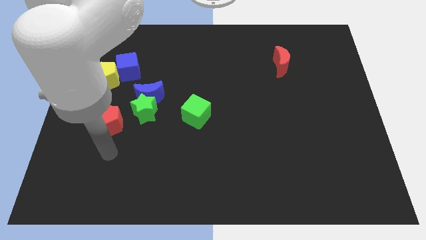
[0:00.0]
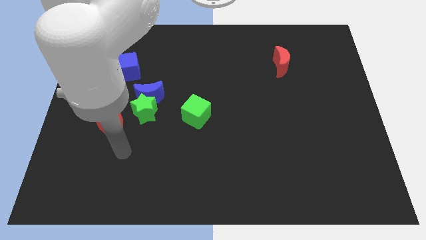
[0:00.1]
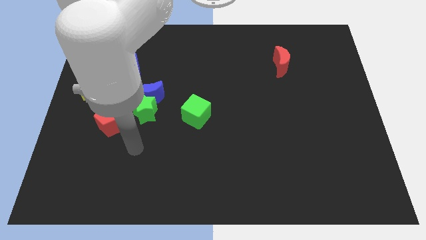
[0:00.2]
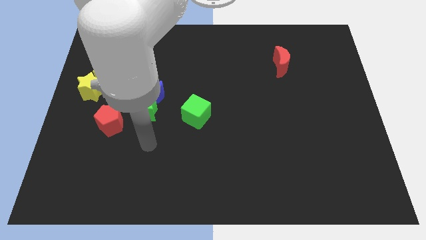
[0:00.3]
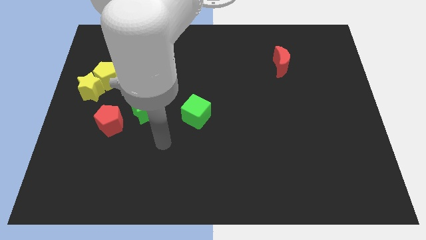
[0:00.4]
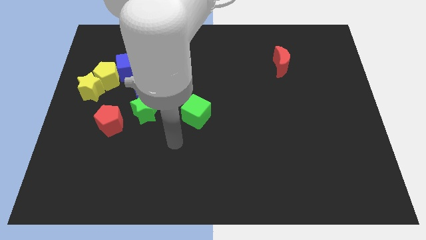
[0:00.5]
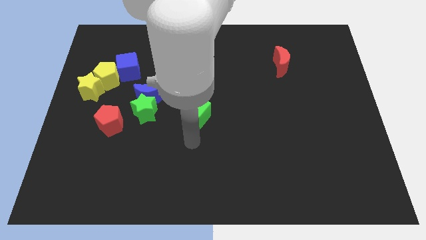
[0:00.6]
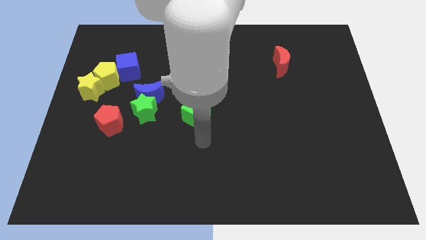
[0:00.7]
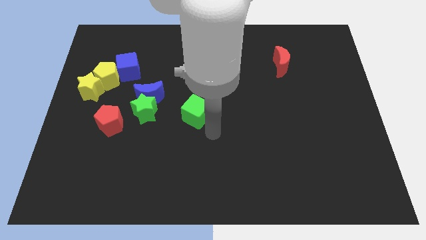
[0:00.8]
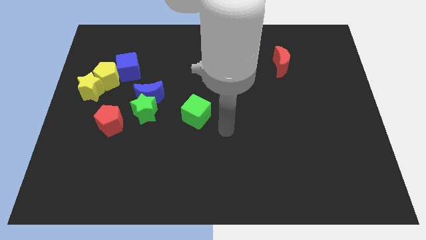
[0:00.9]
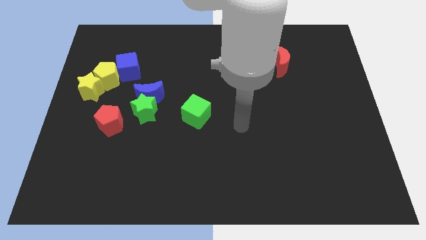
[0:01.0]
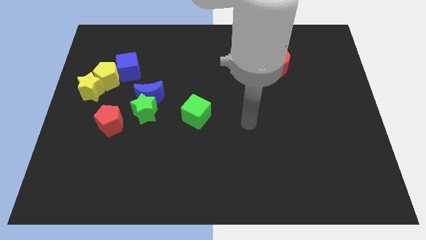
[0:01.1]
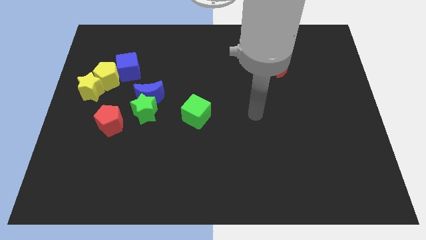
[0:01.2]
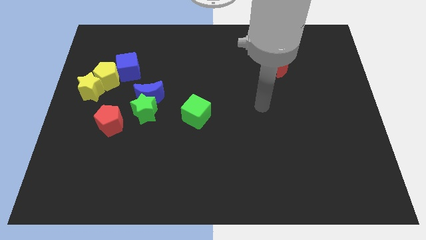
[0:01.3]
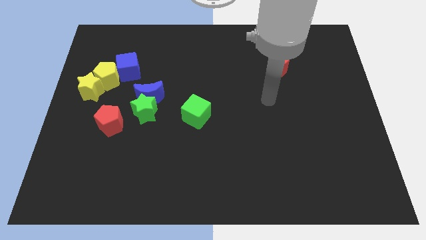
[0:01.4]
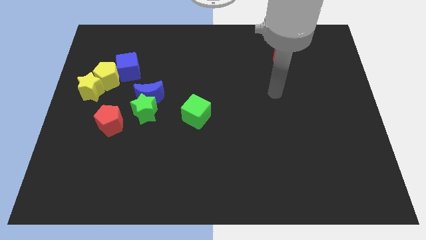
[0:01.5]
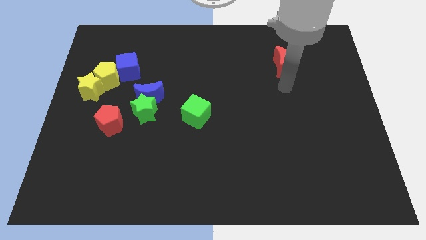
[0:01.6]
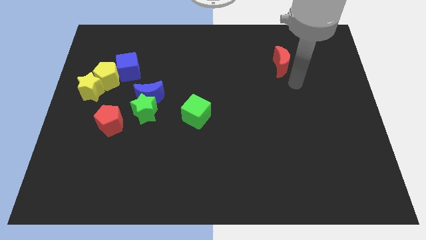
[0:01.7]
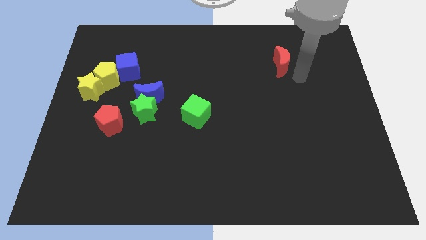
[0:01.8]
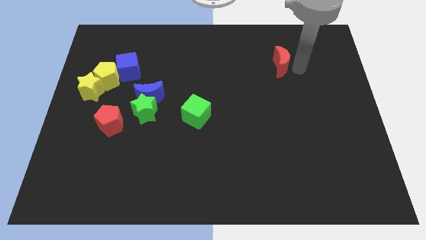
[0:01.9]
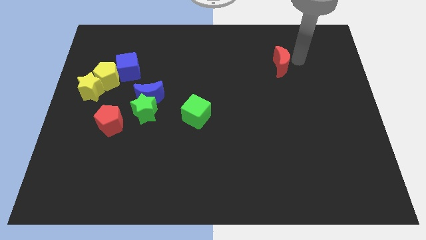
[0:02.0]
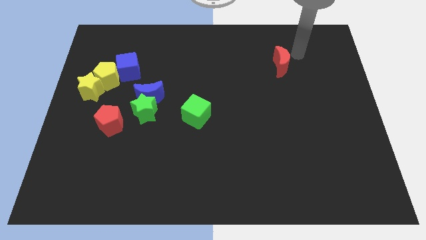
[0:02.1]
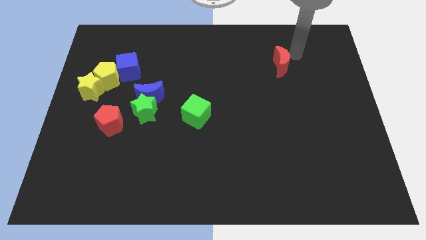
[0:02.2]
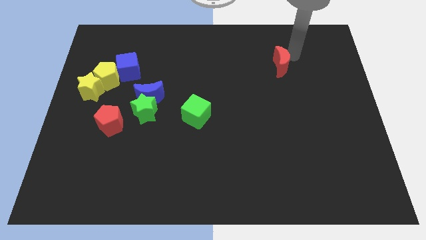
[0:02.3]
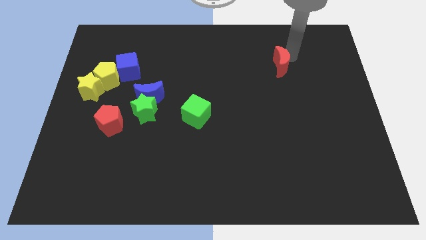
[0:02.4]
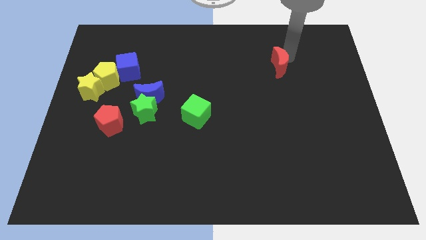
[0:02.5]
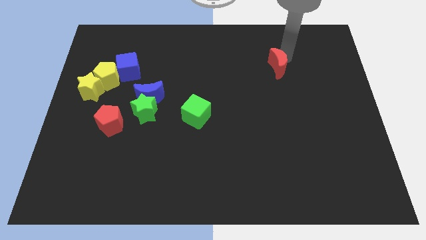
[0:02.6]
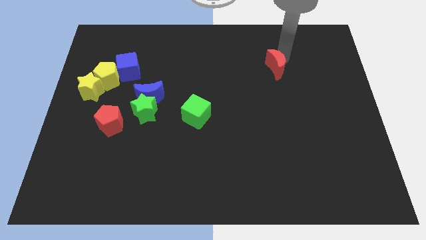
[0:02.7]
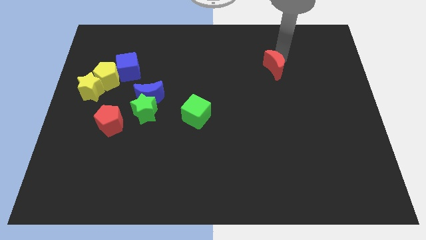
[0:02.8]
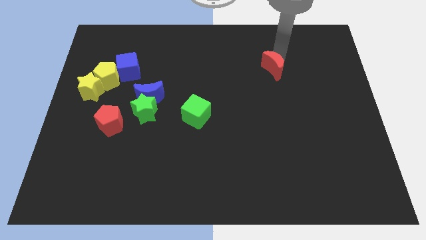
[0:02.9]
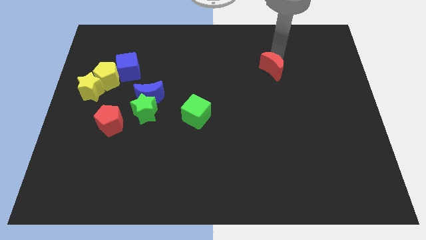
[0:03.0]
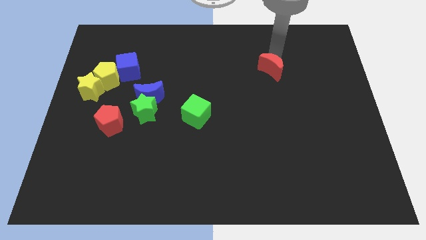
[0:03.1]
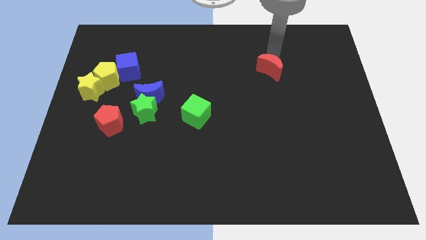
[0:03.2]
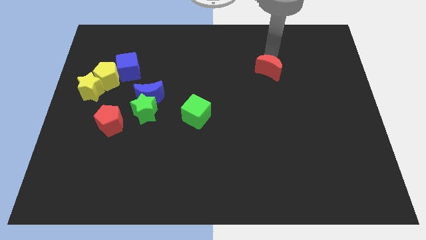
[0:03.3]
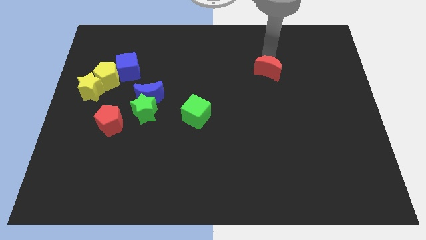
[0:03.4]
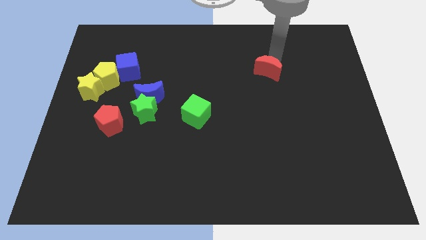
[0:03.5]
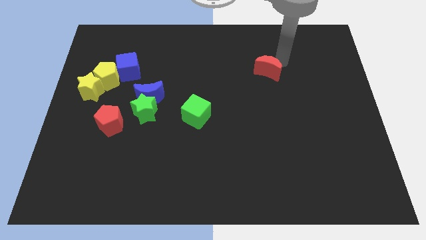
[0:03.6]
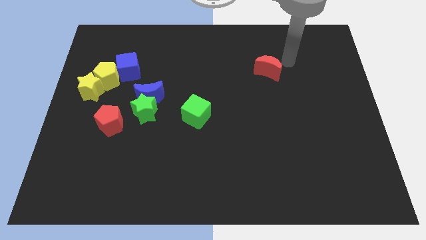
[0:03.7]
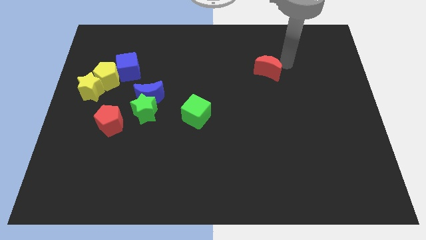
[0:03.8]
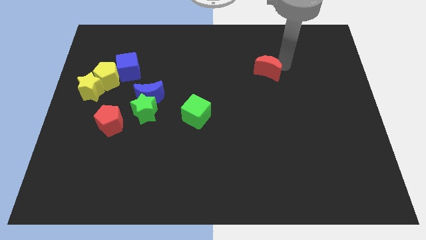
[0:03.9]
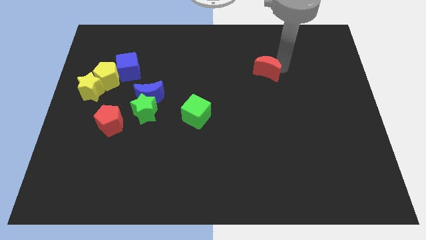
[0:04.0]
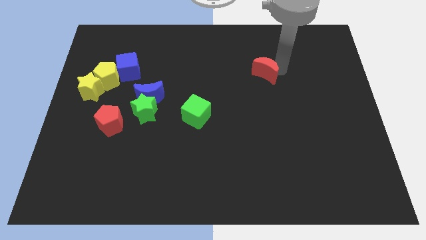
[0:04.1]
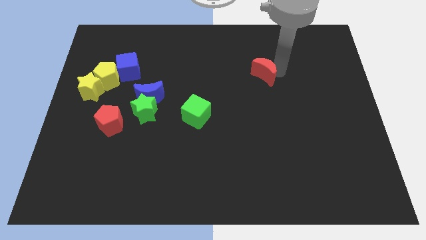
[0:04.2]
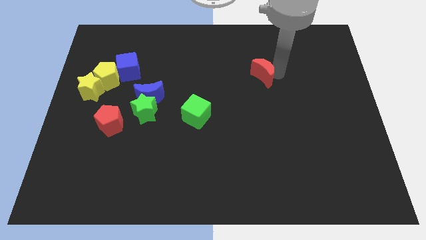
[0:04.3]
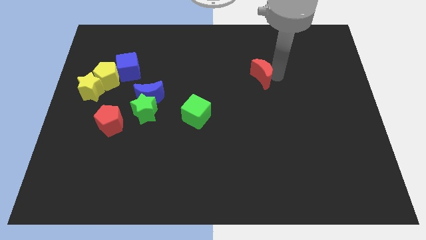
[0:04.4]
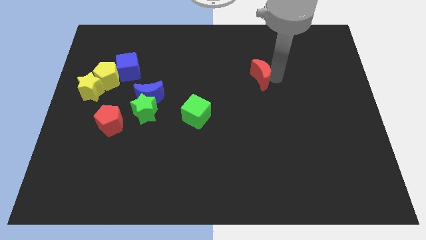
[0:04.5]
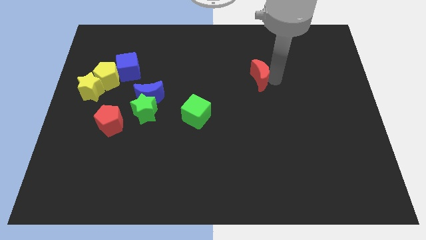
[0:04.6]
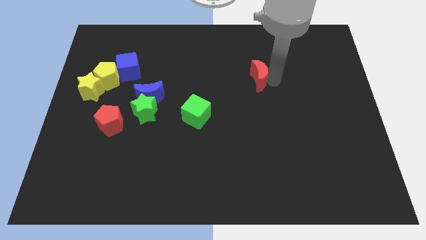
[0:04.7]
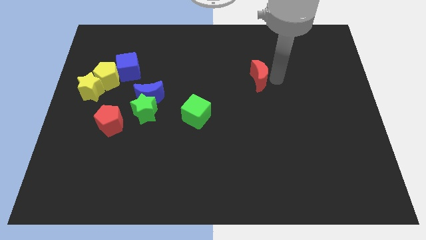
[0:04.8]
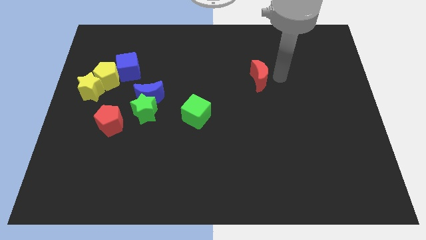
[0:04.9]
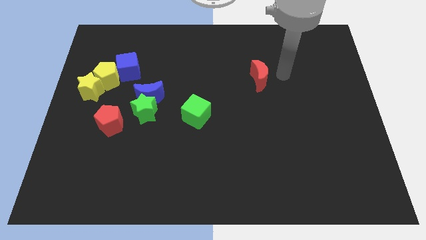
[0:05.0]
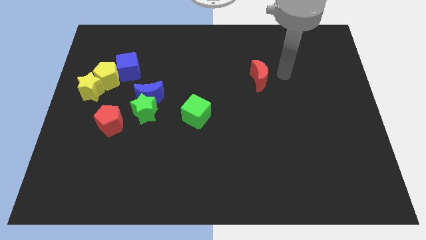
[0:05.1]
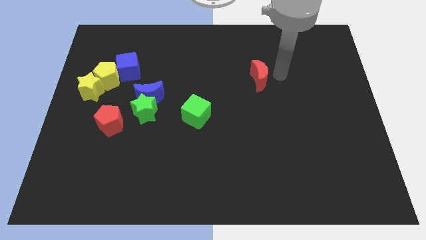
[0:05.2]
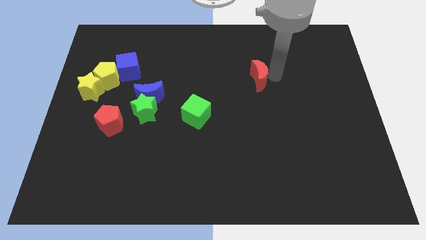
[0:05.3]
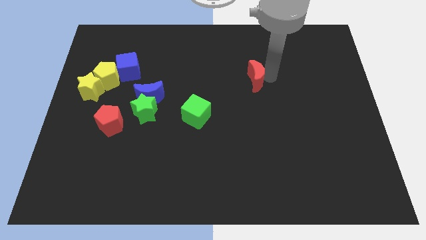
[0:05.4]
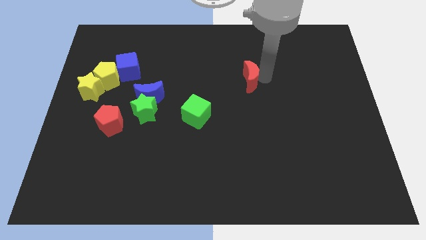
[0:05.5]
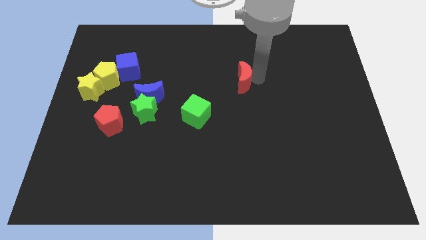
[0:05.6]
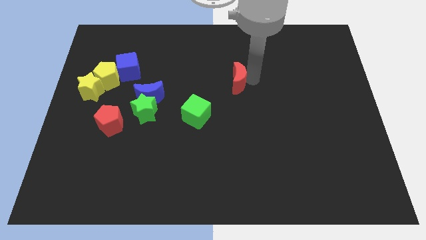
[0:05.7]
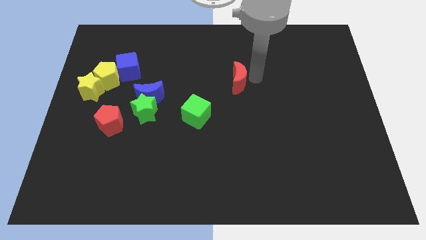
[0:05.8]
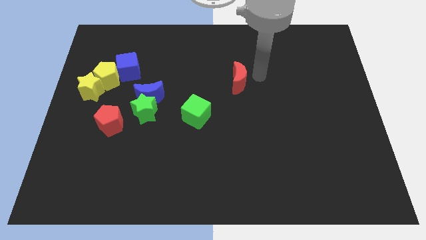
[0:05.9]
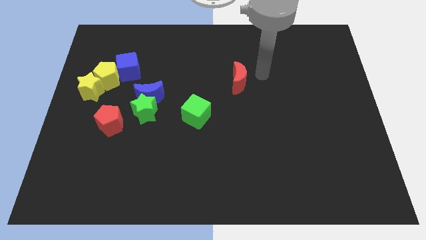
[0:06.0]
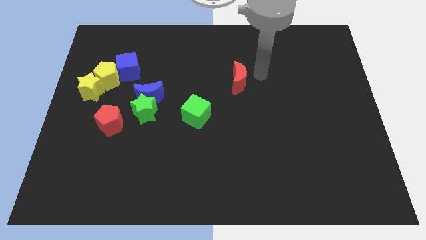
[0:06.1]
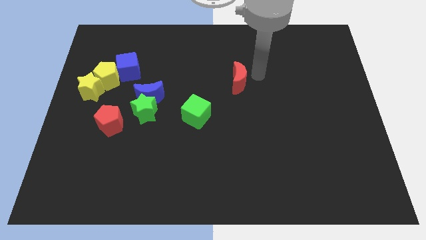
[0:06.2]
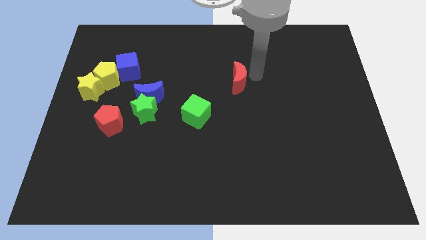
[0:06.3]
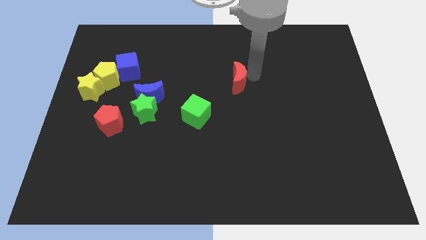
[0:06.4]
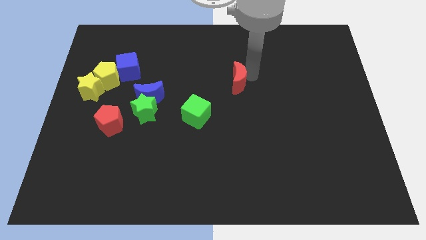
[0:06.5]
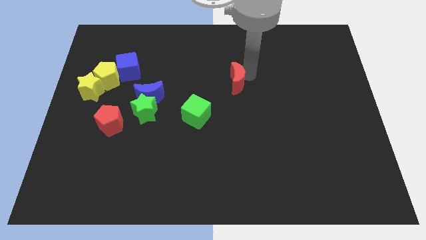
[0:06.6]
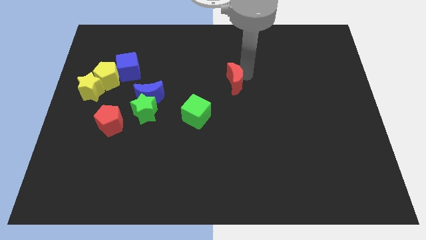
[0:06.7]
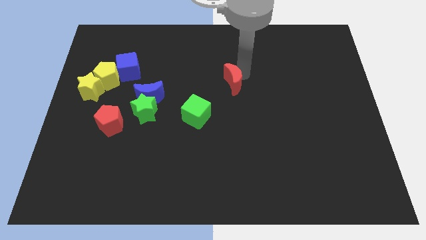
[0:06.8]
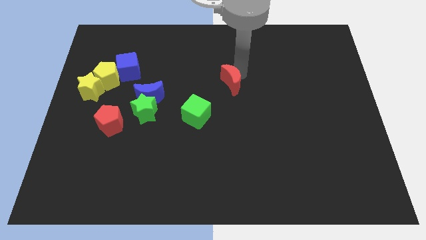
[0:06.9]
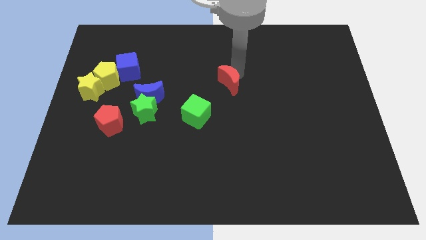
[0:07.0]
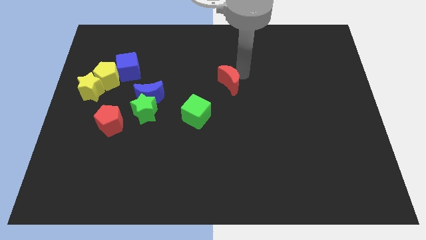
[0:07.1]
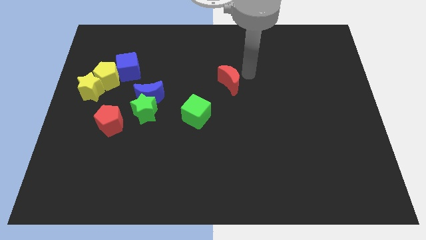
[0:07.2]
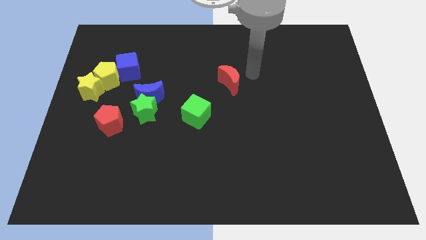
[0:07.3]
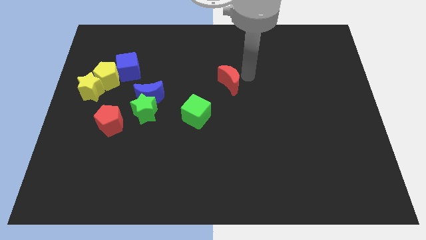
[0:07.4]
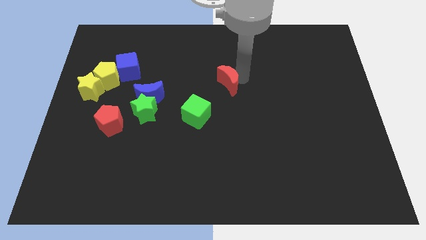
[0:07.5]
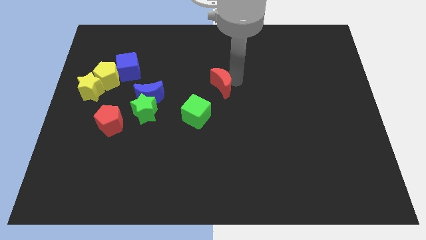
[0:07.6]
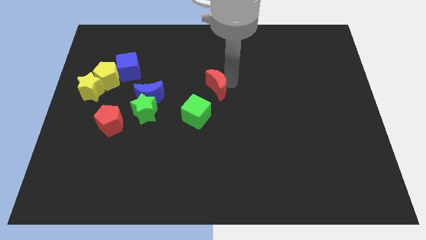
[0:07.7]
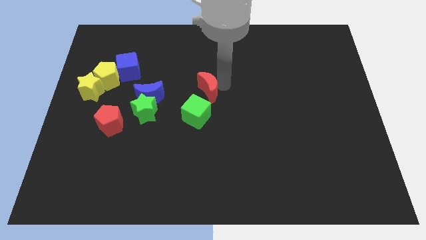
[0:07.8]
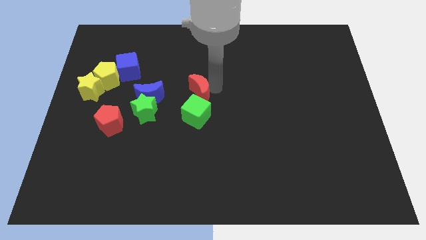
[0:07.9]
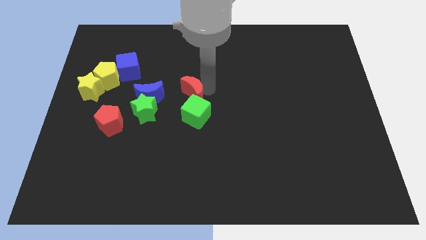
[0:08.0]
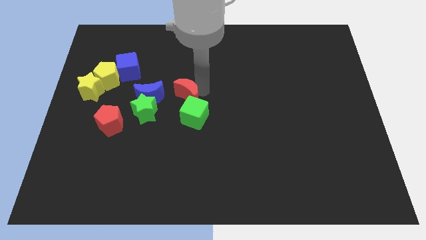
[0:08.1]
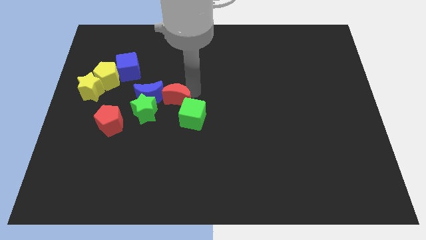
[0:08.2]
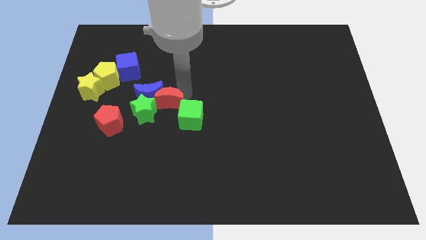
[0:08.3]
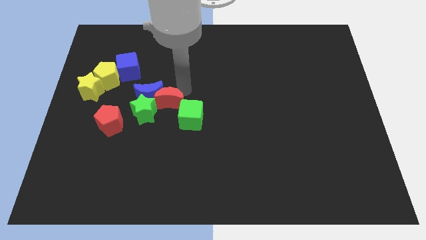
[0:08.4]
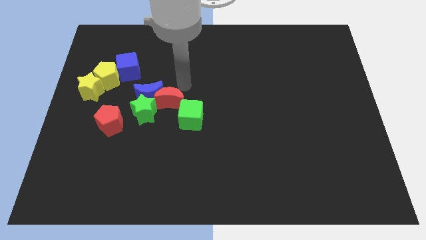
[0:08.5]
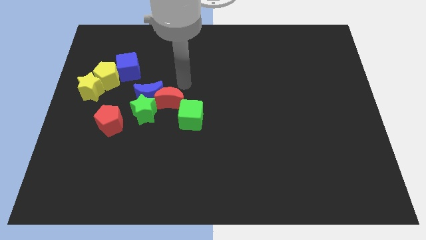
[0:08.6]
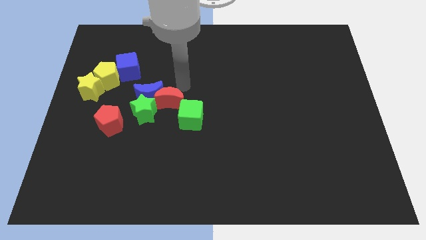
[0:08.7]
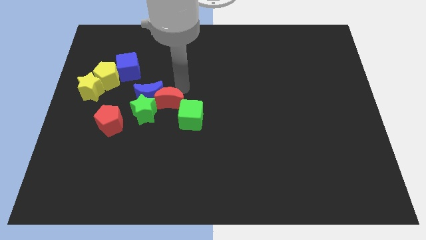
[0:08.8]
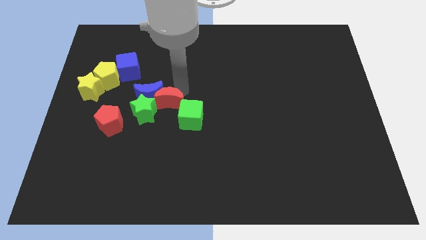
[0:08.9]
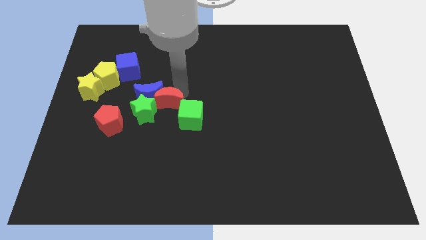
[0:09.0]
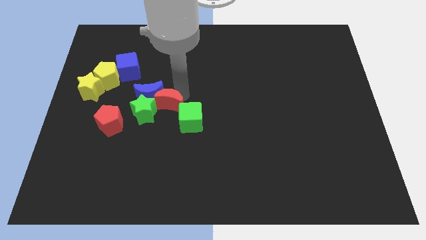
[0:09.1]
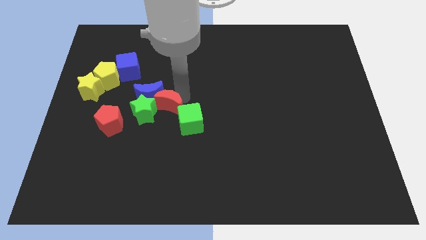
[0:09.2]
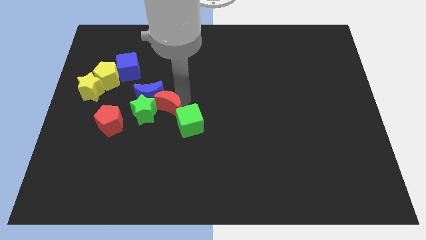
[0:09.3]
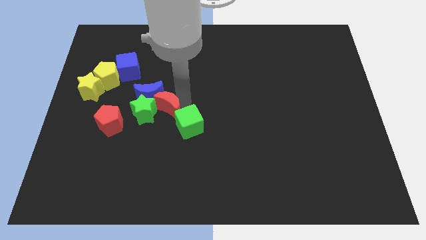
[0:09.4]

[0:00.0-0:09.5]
push the red moon just right of the red pentagon
